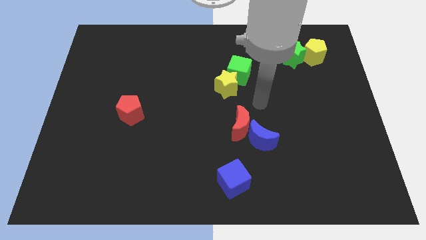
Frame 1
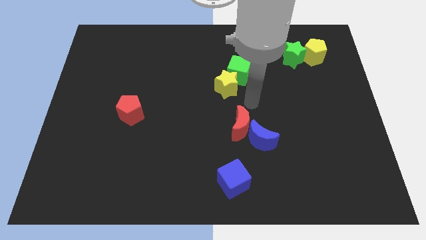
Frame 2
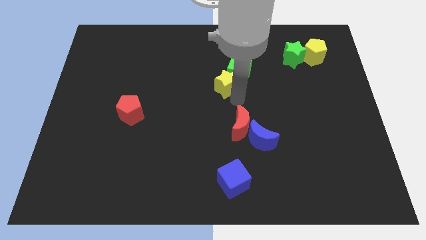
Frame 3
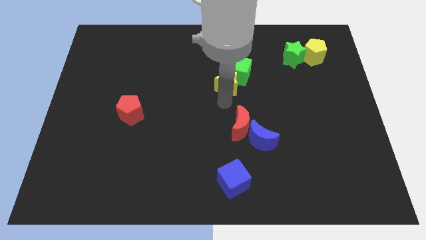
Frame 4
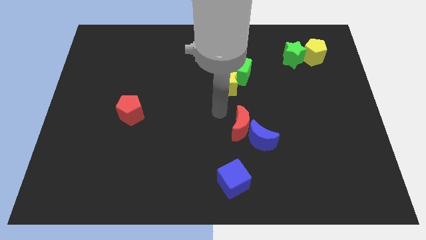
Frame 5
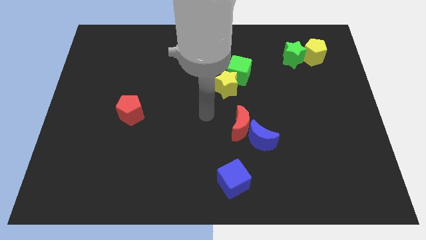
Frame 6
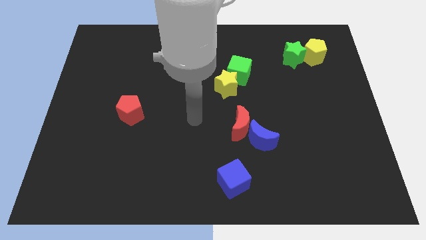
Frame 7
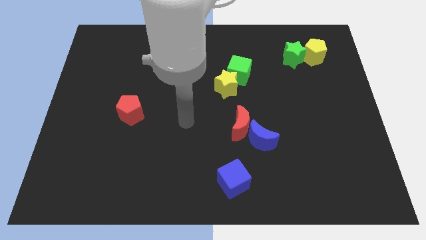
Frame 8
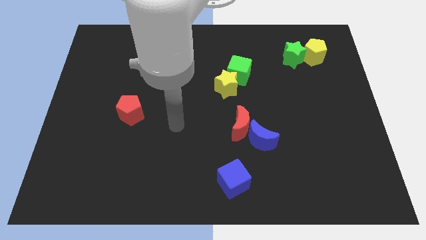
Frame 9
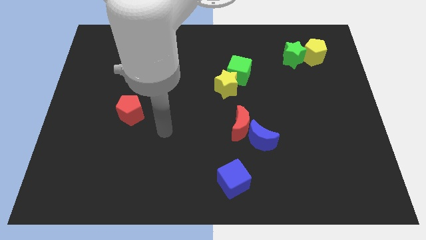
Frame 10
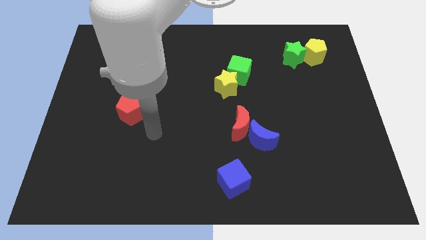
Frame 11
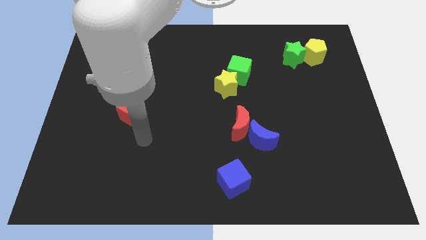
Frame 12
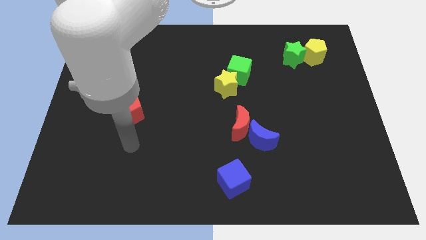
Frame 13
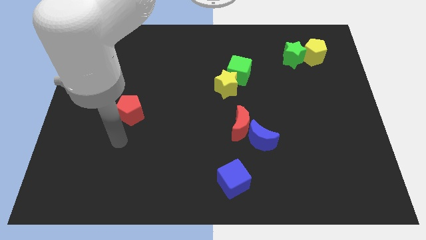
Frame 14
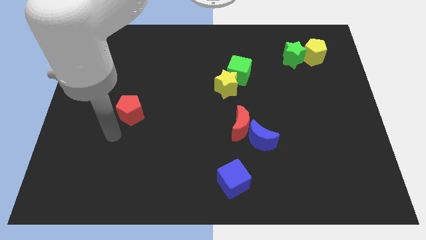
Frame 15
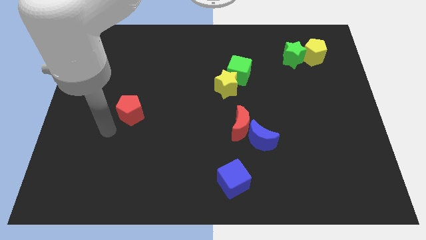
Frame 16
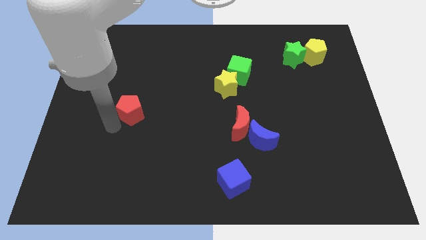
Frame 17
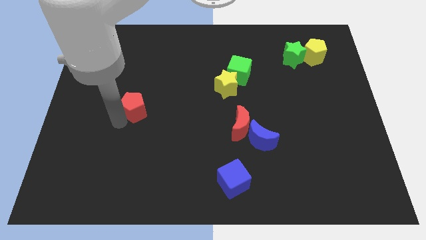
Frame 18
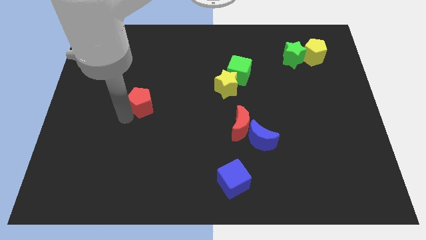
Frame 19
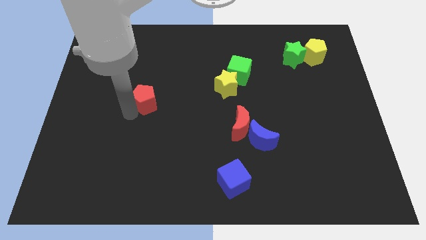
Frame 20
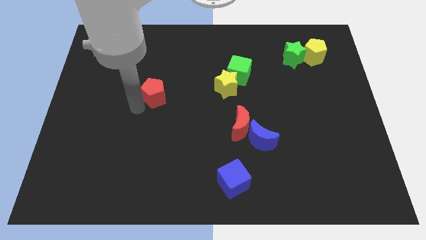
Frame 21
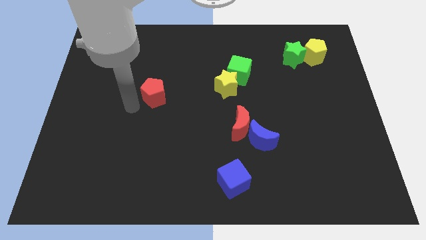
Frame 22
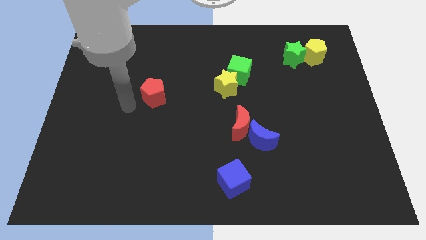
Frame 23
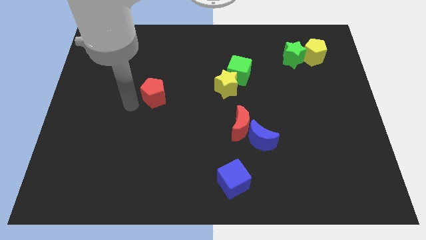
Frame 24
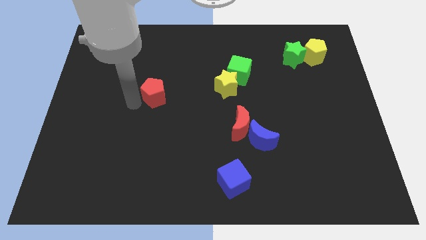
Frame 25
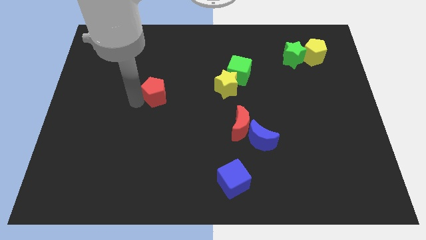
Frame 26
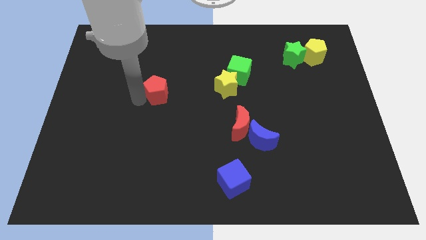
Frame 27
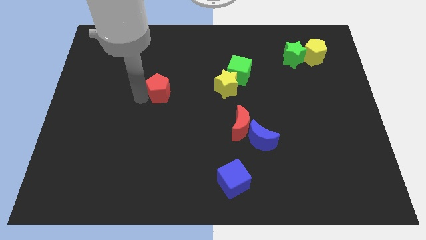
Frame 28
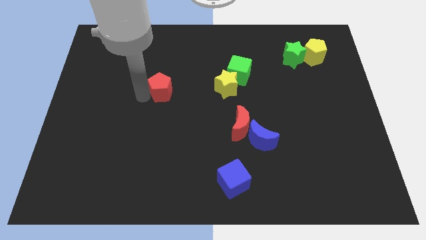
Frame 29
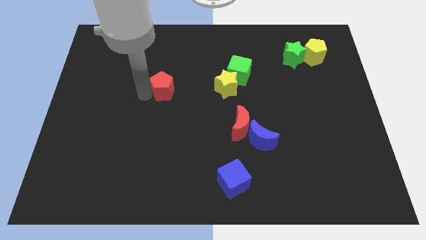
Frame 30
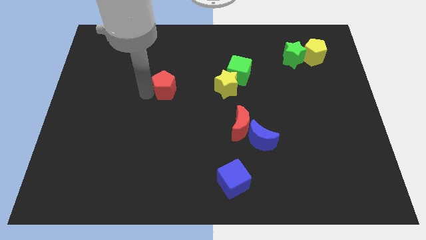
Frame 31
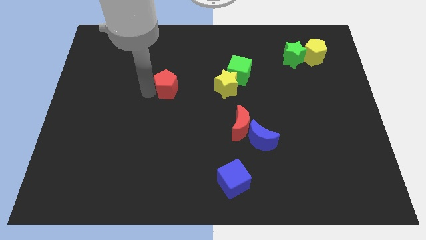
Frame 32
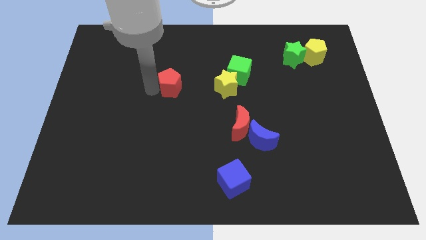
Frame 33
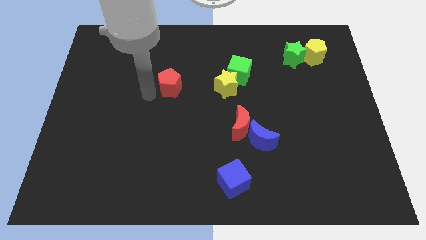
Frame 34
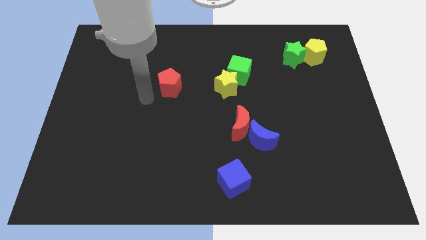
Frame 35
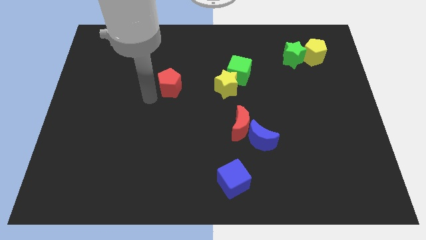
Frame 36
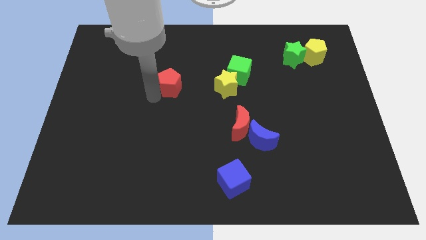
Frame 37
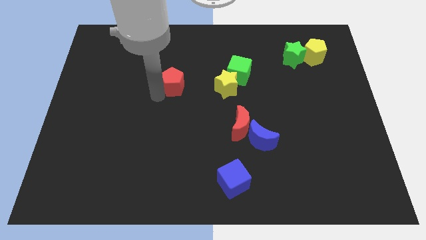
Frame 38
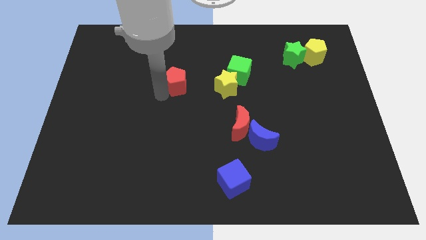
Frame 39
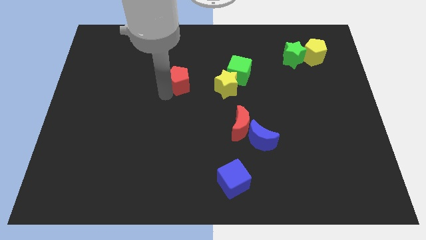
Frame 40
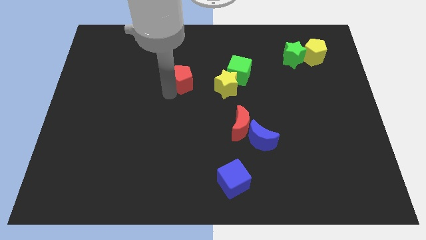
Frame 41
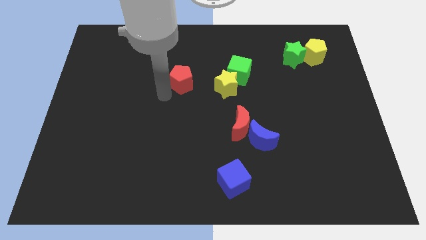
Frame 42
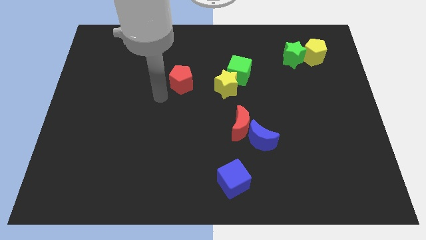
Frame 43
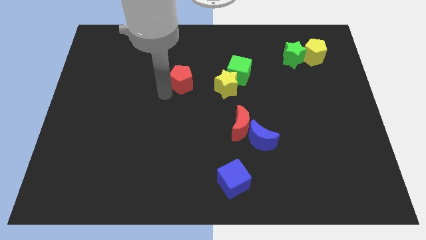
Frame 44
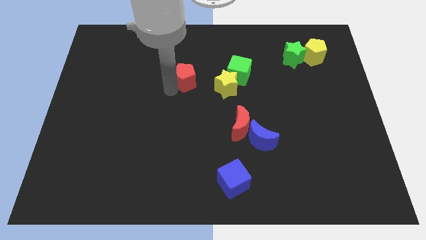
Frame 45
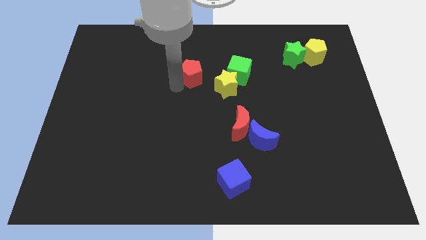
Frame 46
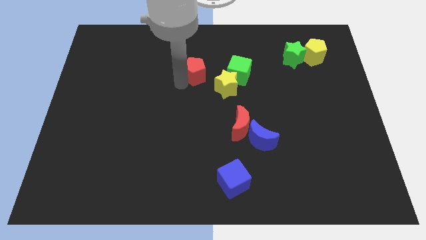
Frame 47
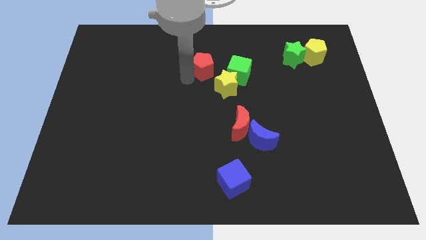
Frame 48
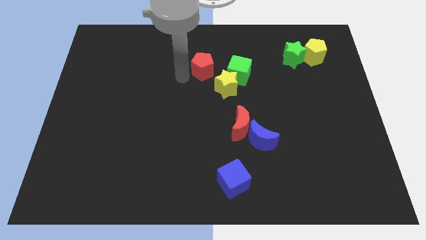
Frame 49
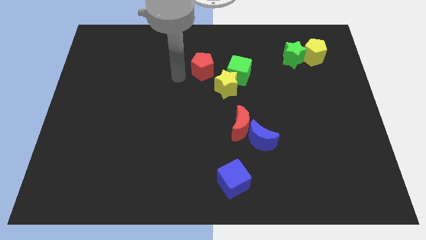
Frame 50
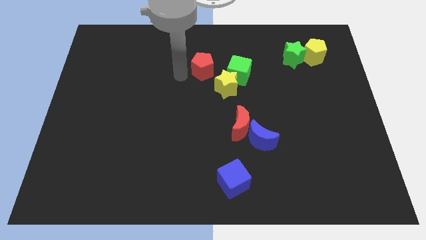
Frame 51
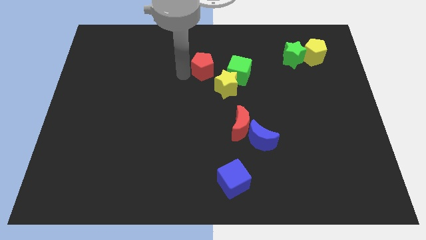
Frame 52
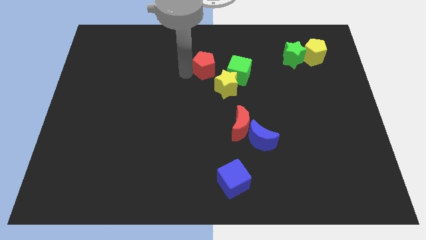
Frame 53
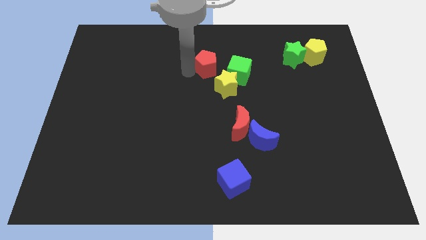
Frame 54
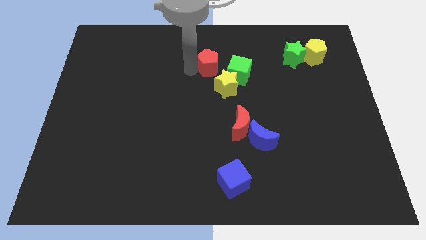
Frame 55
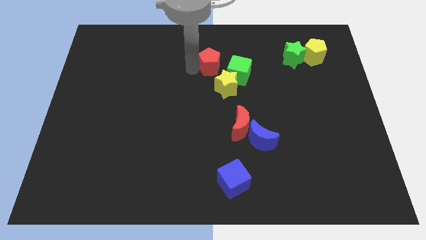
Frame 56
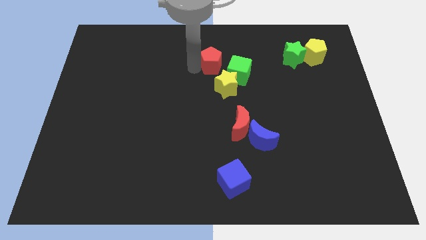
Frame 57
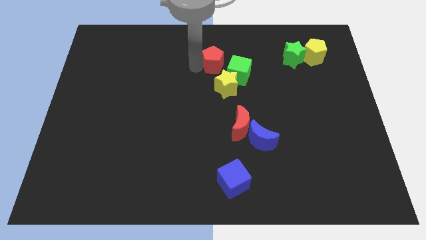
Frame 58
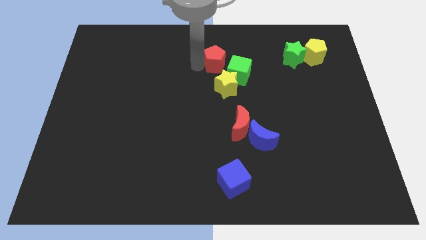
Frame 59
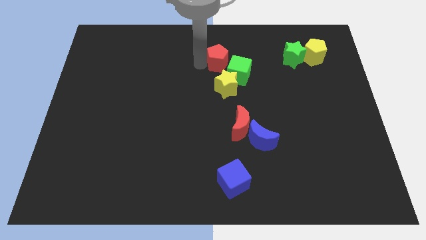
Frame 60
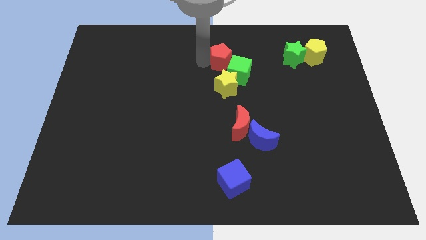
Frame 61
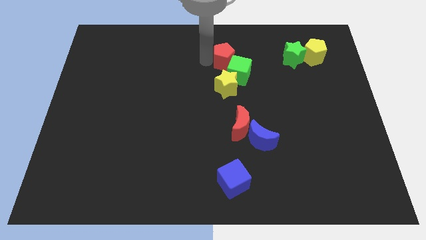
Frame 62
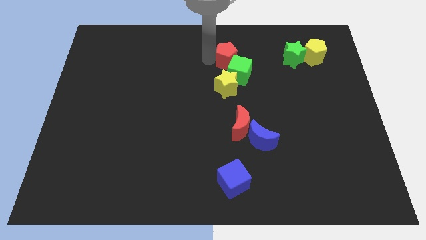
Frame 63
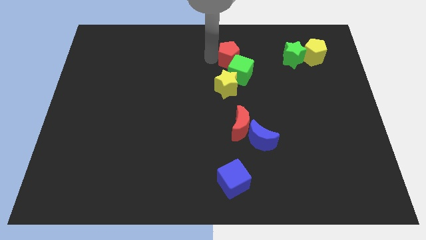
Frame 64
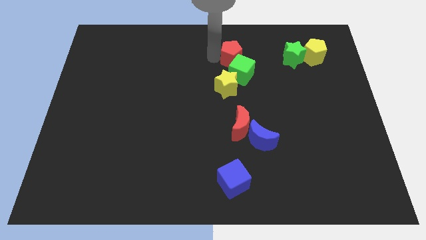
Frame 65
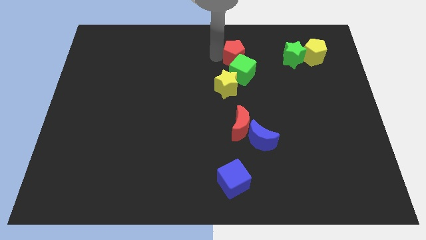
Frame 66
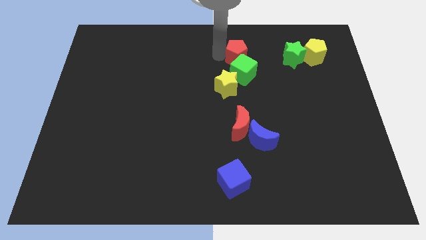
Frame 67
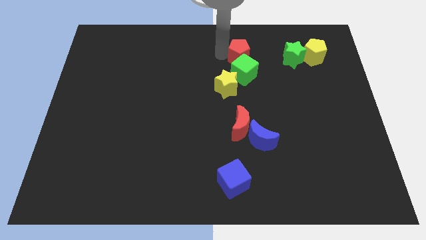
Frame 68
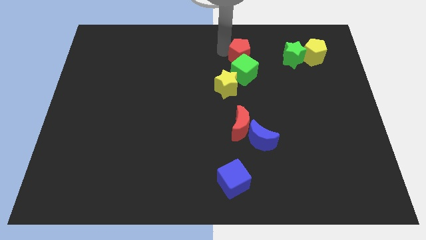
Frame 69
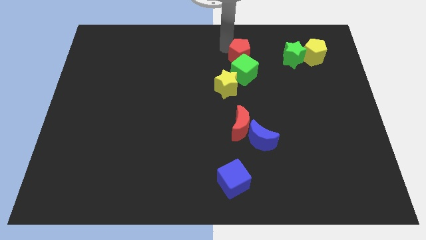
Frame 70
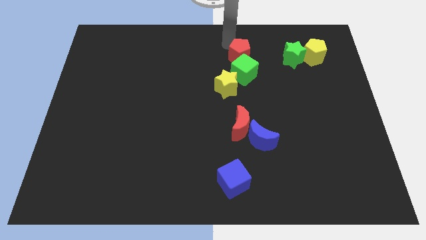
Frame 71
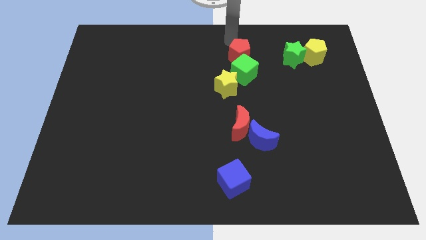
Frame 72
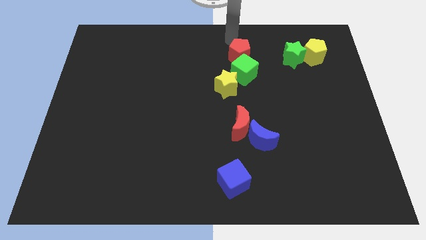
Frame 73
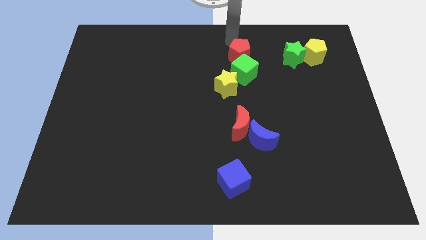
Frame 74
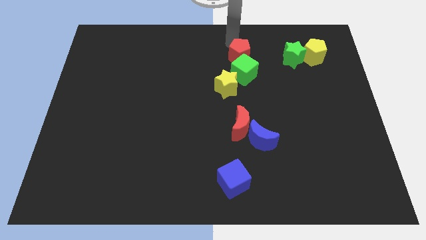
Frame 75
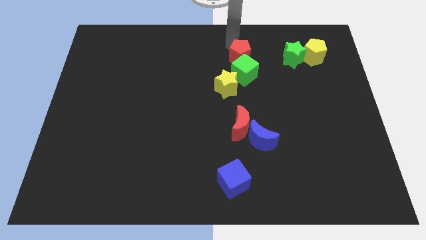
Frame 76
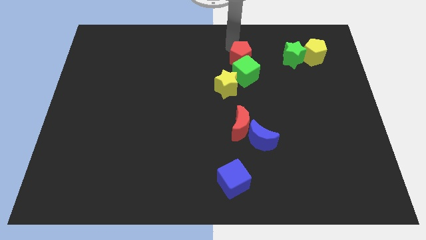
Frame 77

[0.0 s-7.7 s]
put the red pentagon to the top right of the yellow star

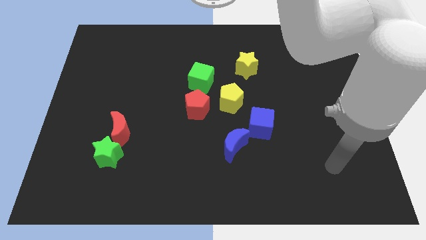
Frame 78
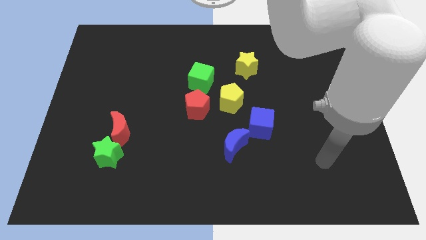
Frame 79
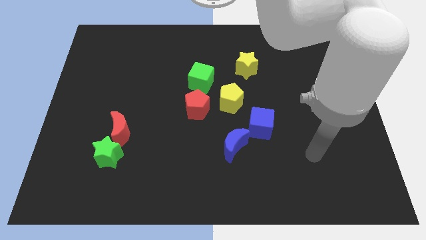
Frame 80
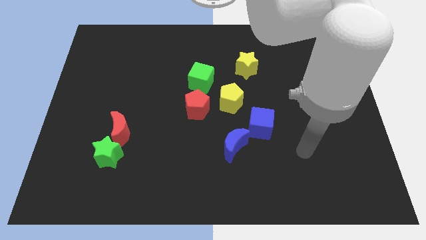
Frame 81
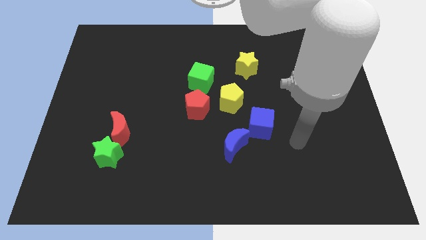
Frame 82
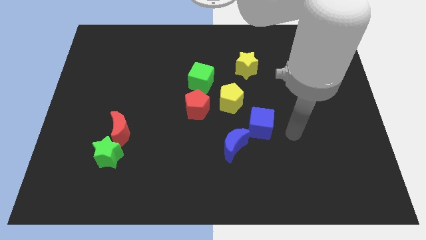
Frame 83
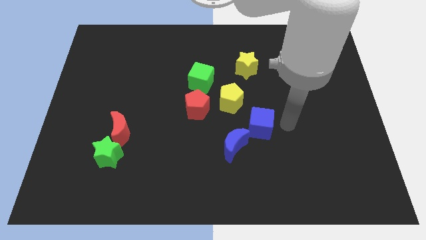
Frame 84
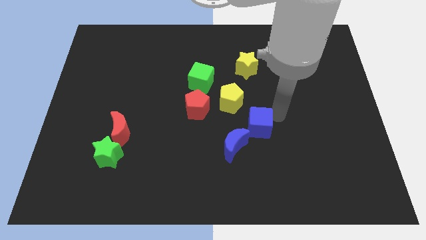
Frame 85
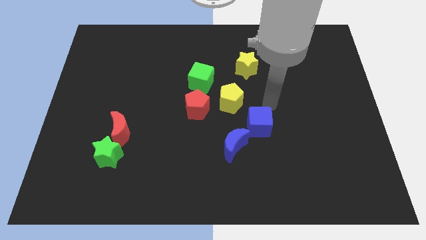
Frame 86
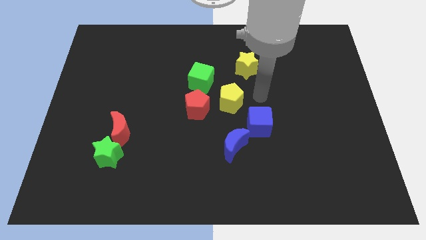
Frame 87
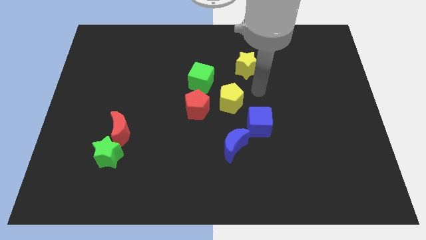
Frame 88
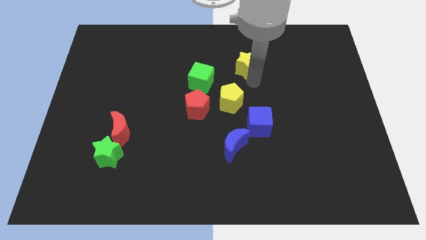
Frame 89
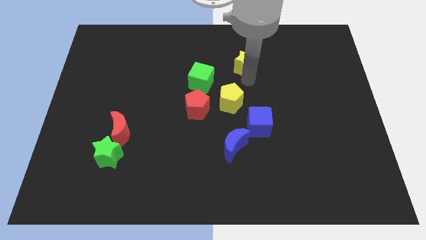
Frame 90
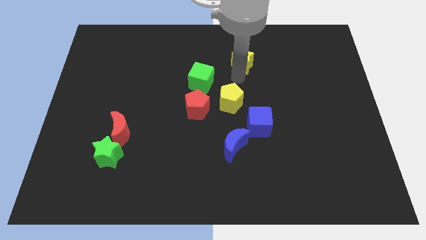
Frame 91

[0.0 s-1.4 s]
push the green cube to the bottom left side of the yellow star
